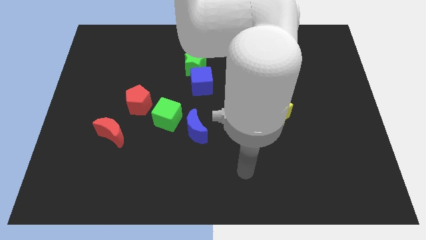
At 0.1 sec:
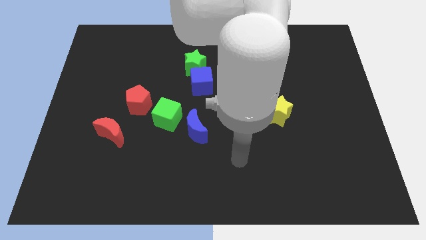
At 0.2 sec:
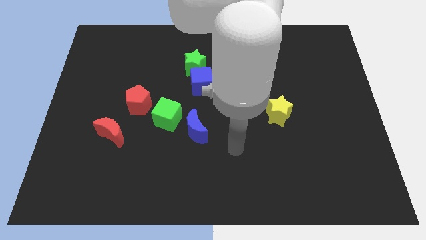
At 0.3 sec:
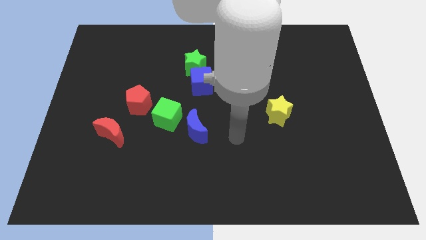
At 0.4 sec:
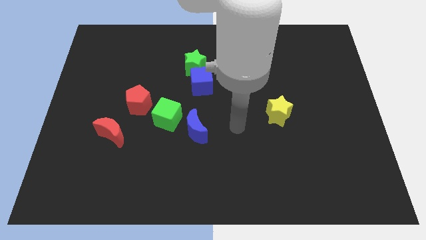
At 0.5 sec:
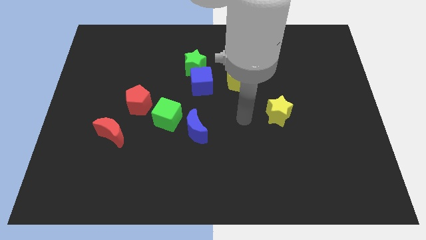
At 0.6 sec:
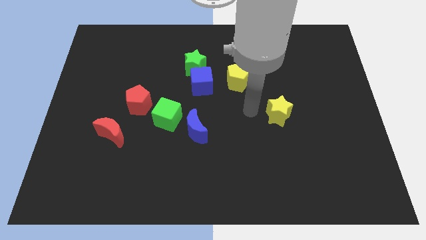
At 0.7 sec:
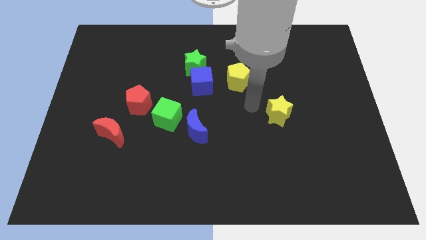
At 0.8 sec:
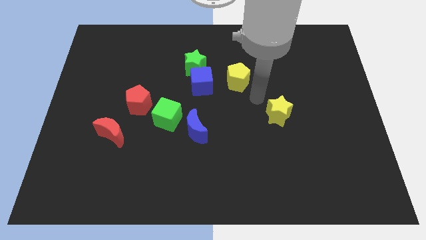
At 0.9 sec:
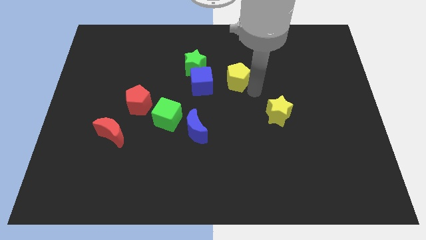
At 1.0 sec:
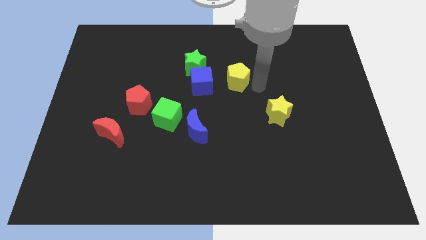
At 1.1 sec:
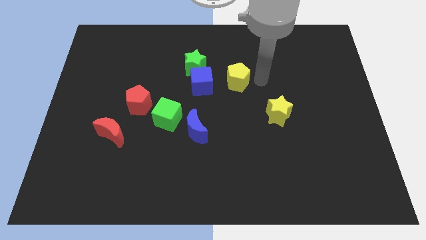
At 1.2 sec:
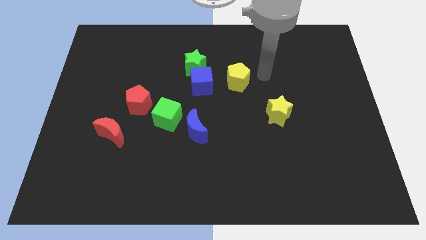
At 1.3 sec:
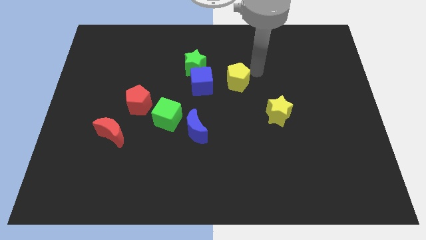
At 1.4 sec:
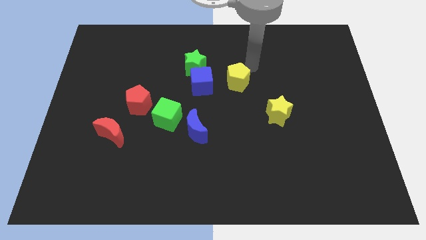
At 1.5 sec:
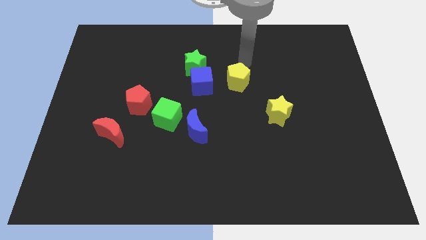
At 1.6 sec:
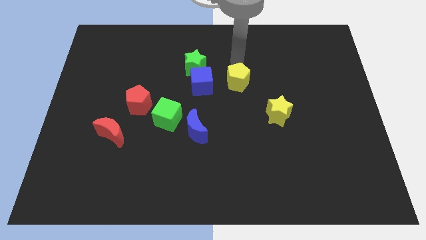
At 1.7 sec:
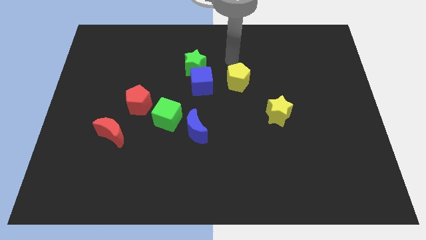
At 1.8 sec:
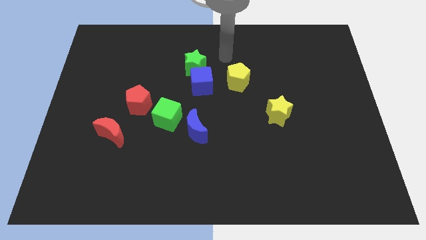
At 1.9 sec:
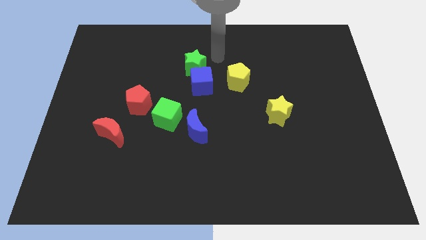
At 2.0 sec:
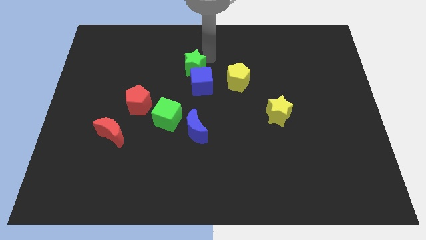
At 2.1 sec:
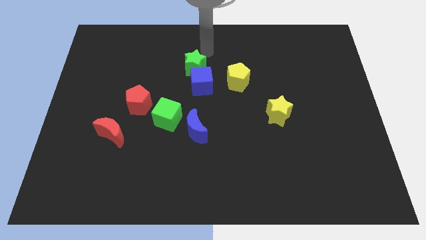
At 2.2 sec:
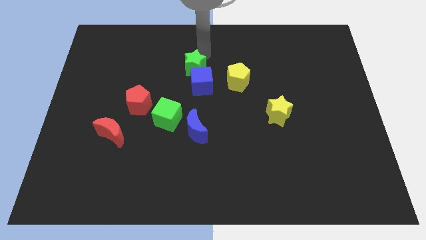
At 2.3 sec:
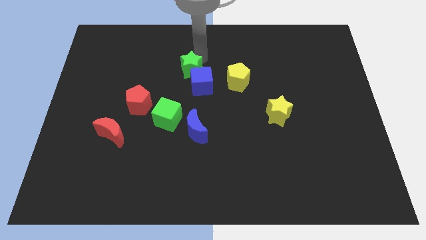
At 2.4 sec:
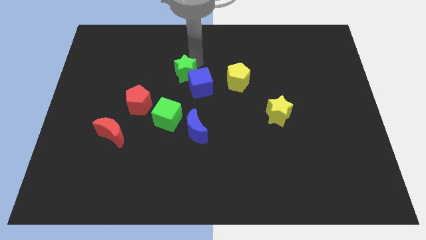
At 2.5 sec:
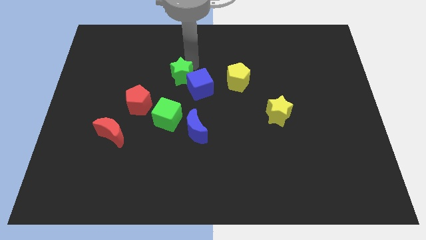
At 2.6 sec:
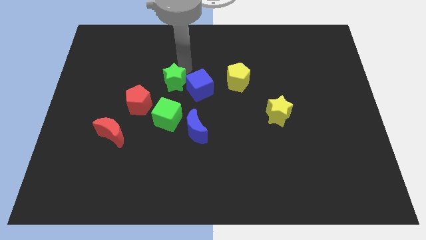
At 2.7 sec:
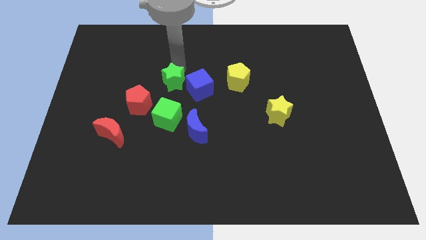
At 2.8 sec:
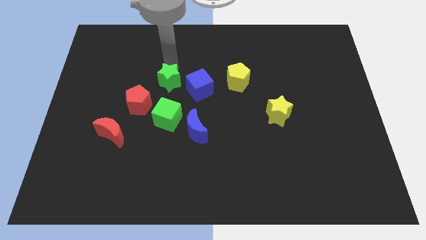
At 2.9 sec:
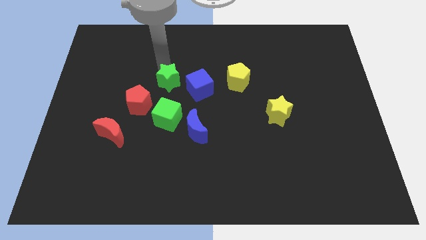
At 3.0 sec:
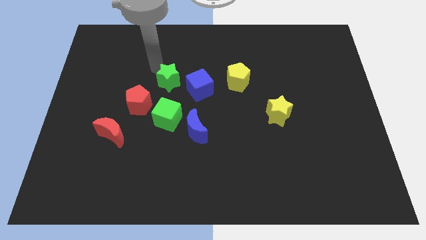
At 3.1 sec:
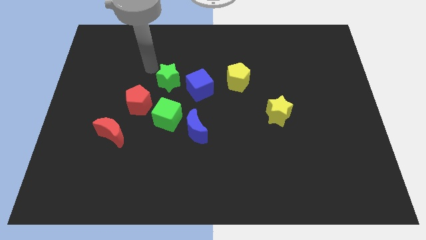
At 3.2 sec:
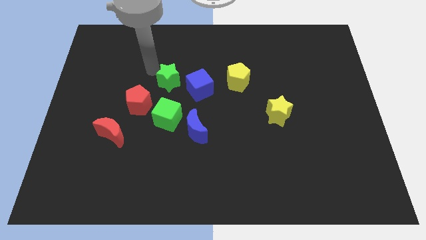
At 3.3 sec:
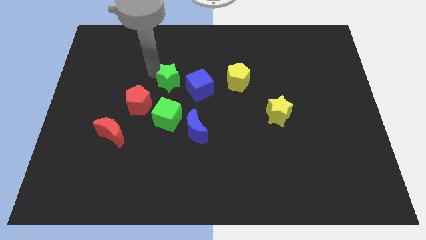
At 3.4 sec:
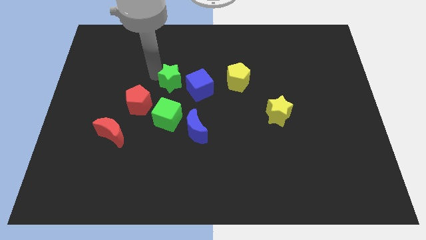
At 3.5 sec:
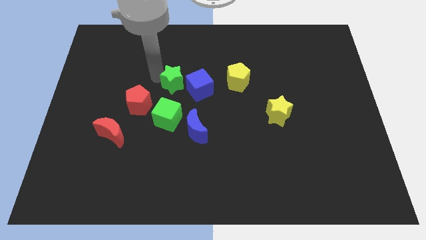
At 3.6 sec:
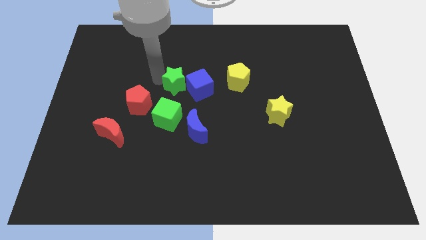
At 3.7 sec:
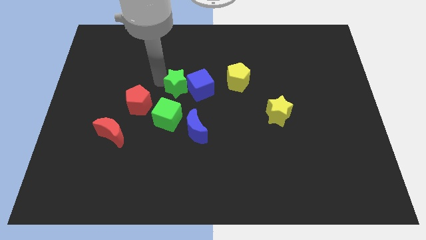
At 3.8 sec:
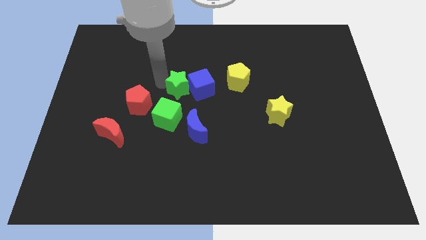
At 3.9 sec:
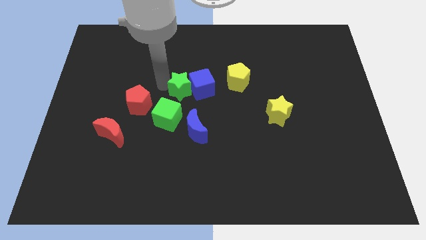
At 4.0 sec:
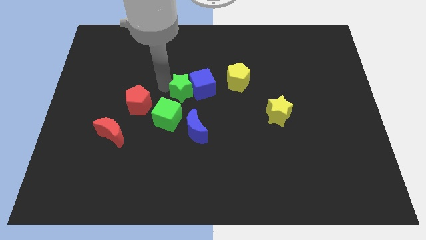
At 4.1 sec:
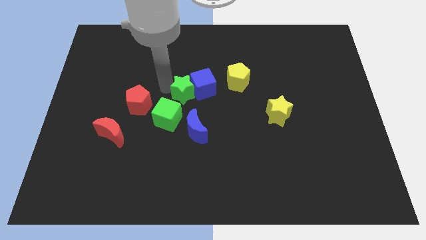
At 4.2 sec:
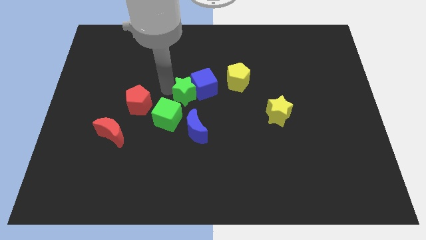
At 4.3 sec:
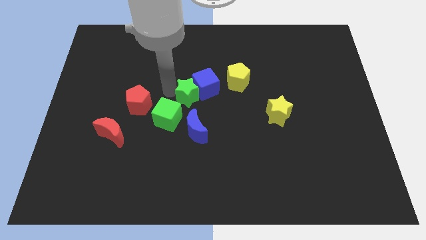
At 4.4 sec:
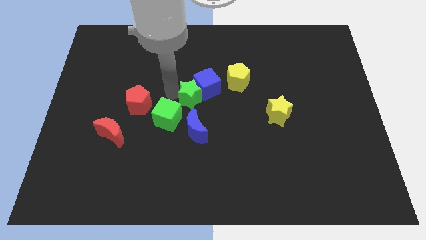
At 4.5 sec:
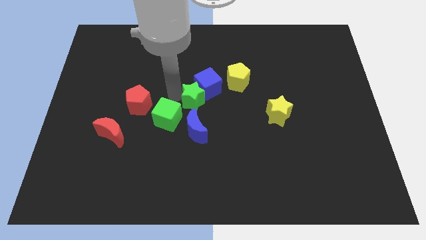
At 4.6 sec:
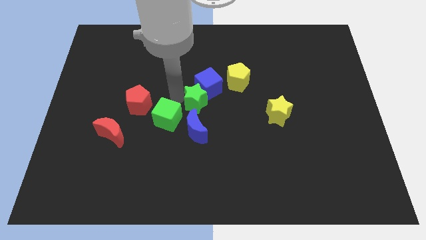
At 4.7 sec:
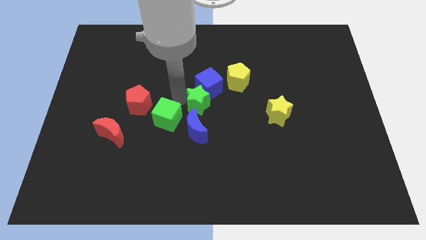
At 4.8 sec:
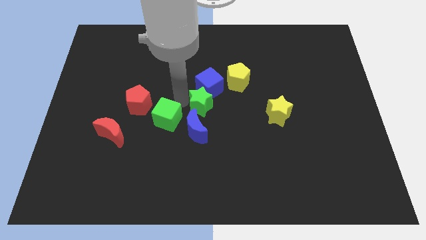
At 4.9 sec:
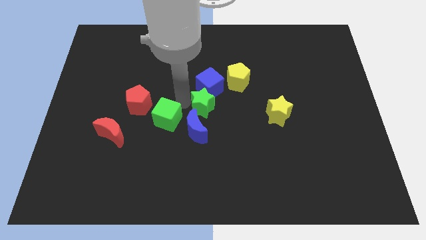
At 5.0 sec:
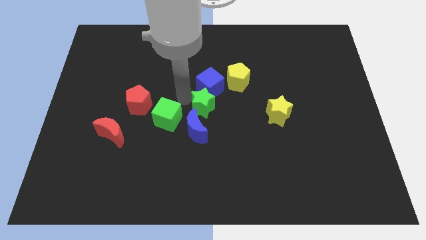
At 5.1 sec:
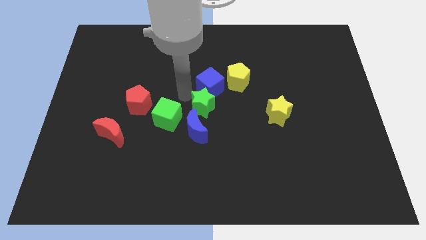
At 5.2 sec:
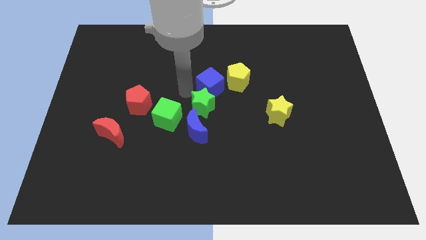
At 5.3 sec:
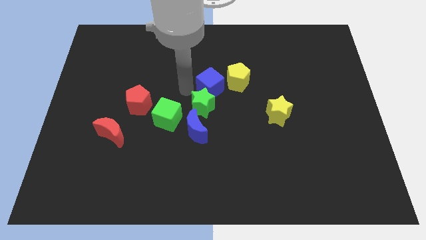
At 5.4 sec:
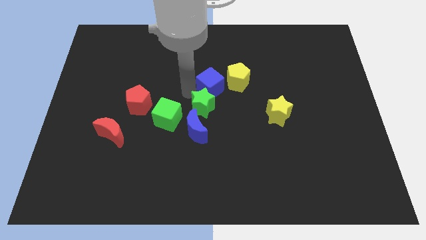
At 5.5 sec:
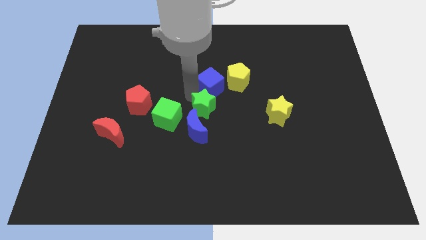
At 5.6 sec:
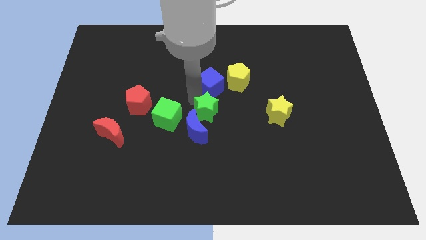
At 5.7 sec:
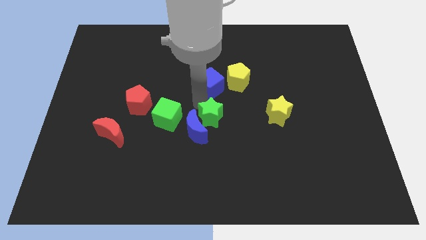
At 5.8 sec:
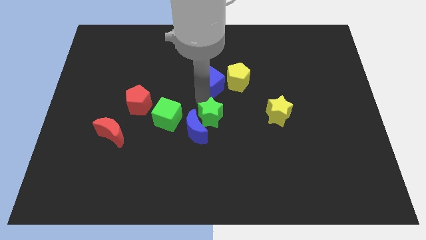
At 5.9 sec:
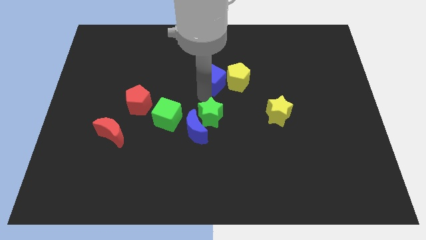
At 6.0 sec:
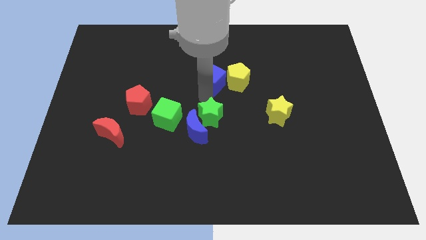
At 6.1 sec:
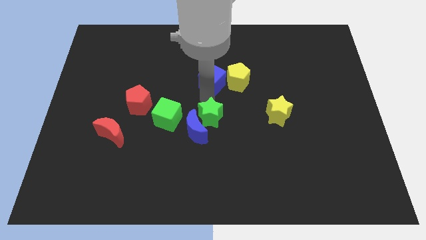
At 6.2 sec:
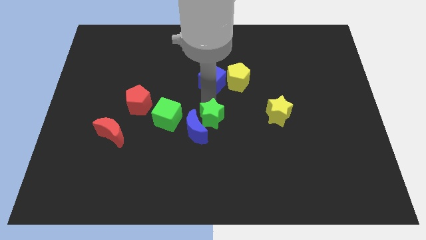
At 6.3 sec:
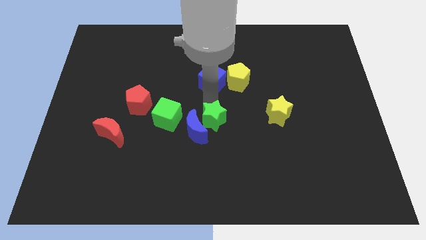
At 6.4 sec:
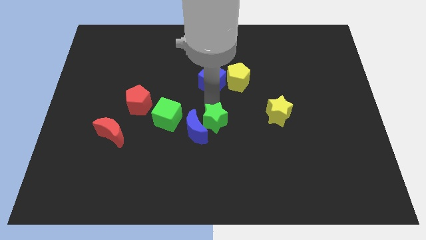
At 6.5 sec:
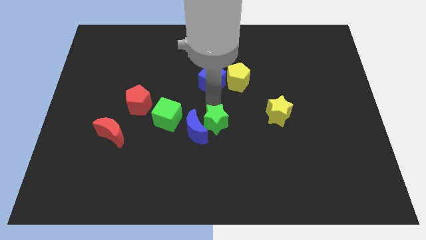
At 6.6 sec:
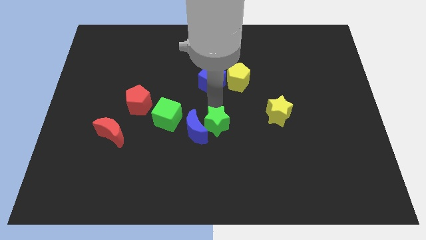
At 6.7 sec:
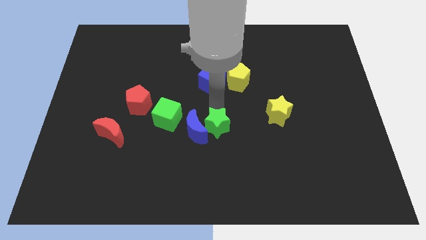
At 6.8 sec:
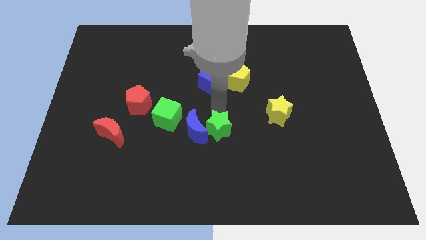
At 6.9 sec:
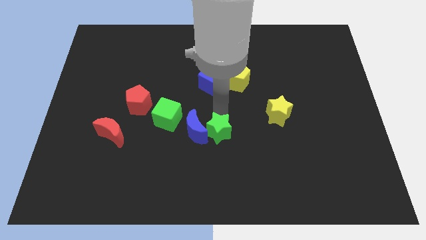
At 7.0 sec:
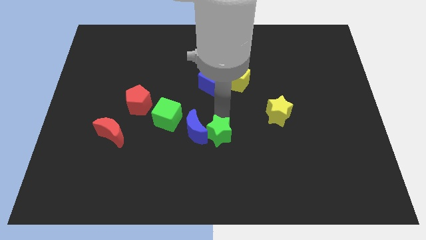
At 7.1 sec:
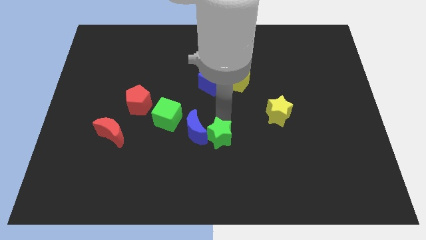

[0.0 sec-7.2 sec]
slide the green star down

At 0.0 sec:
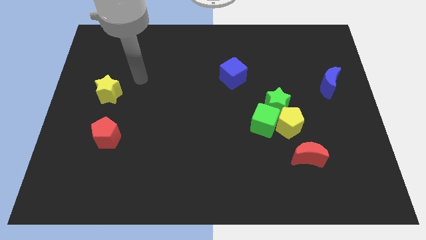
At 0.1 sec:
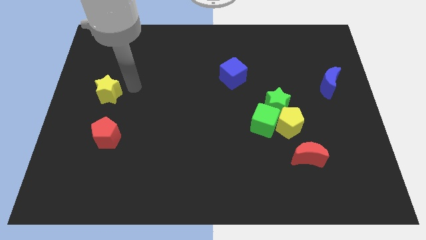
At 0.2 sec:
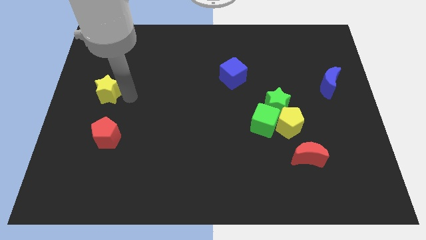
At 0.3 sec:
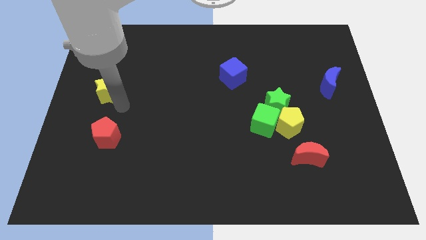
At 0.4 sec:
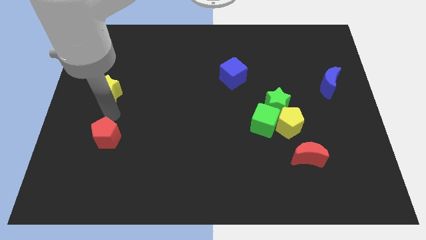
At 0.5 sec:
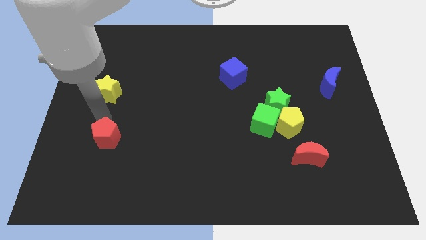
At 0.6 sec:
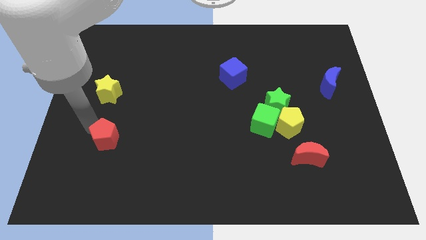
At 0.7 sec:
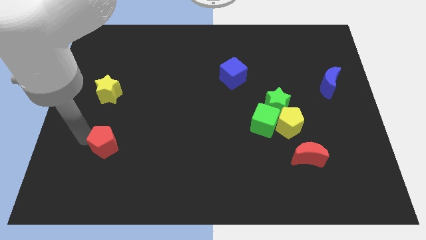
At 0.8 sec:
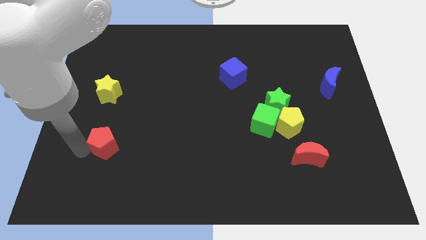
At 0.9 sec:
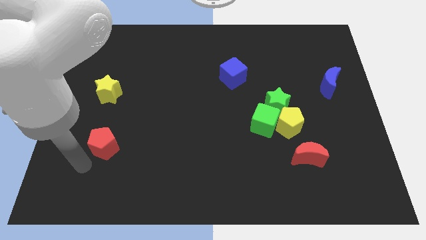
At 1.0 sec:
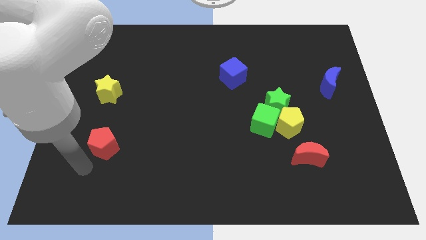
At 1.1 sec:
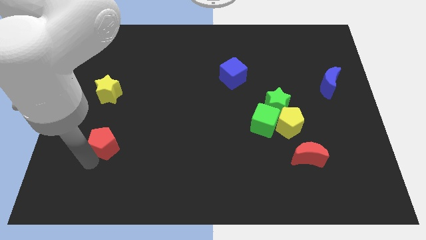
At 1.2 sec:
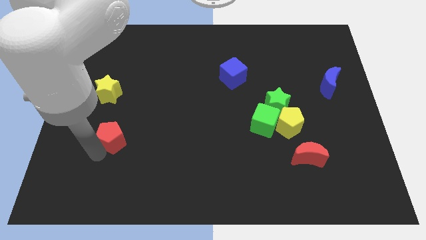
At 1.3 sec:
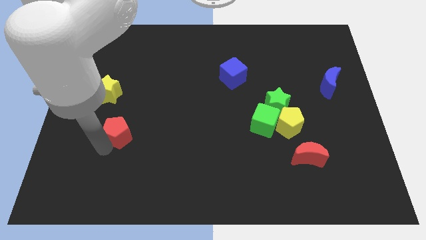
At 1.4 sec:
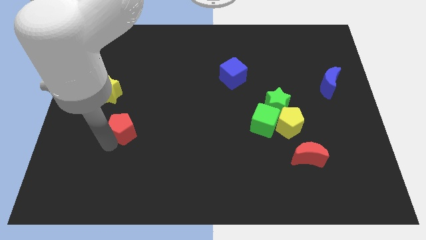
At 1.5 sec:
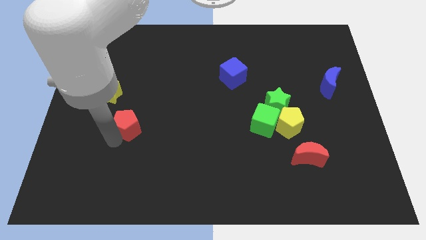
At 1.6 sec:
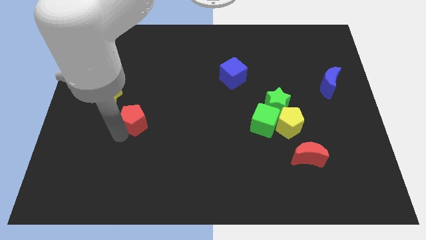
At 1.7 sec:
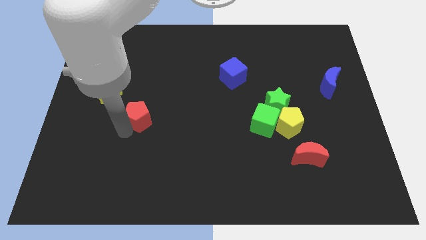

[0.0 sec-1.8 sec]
slightly push the red pentagon up and to the right
